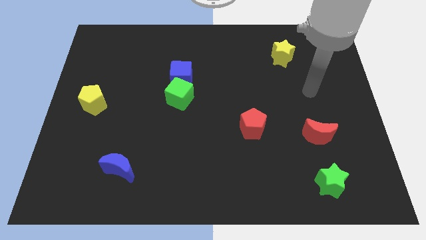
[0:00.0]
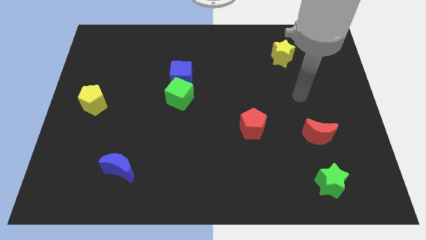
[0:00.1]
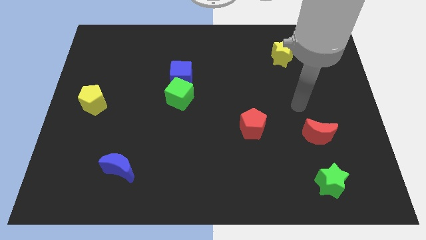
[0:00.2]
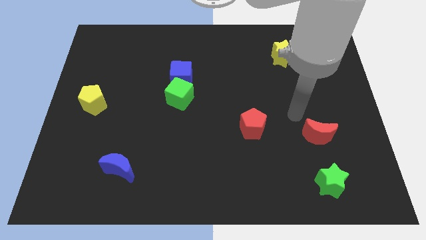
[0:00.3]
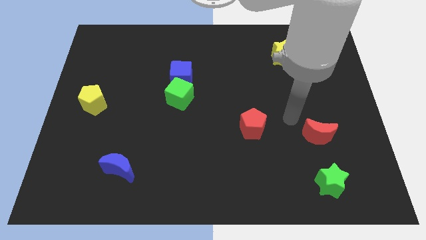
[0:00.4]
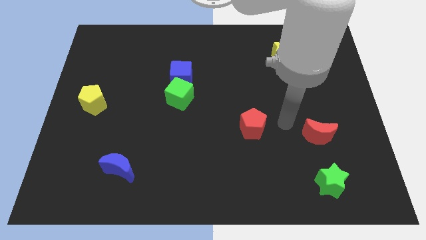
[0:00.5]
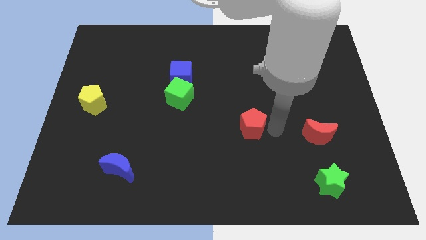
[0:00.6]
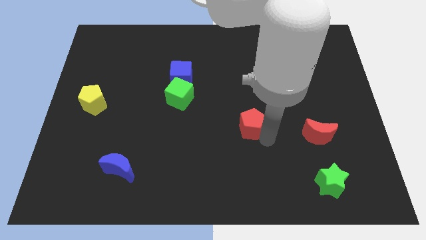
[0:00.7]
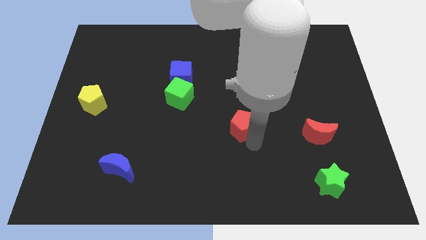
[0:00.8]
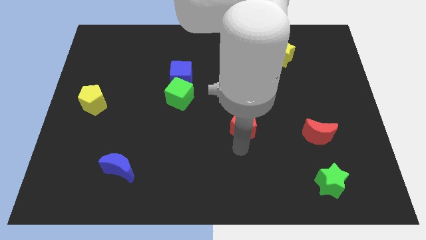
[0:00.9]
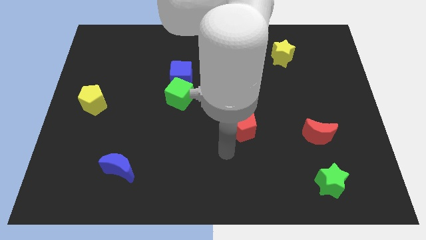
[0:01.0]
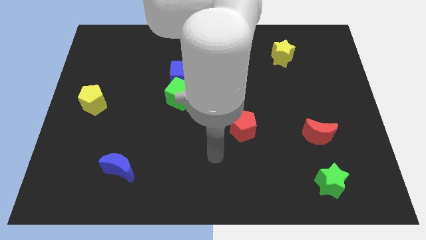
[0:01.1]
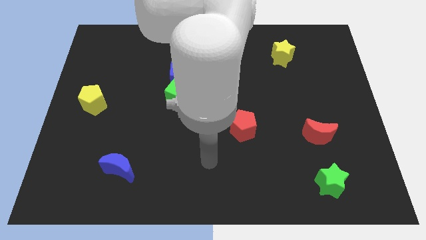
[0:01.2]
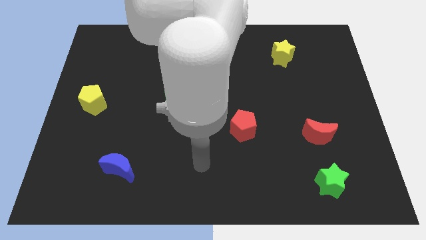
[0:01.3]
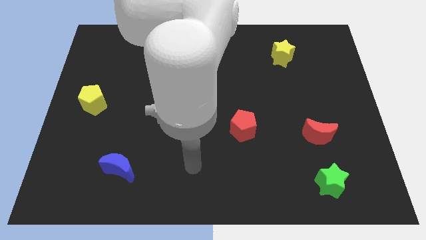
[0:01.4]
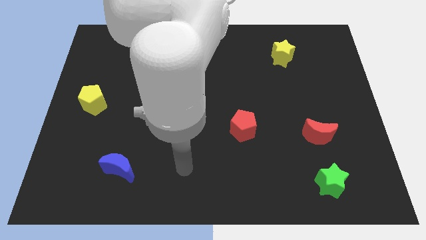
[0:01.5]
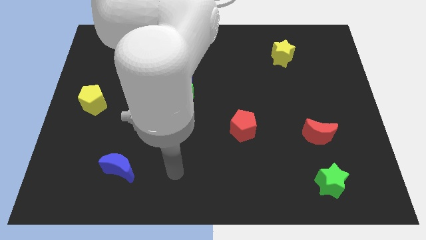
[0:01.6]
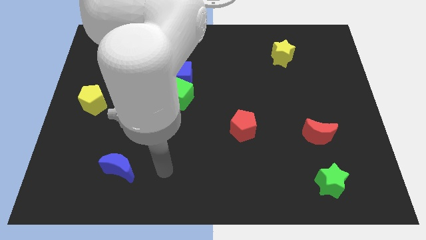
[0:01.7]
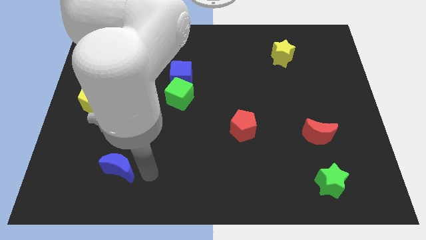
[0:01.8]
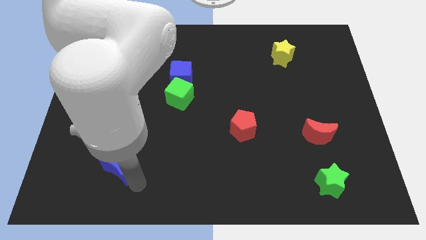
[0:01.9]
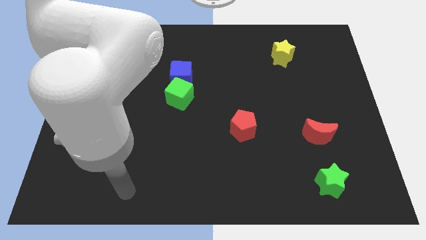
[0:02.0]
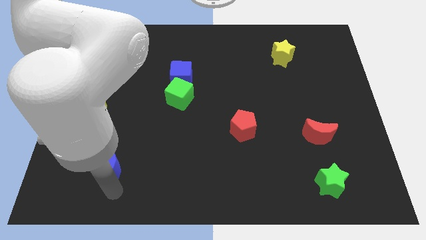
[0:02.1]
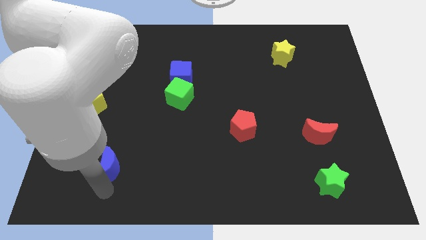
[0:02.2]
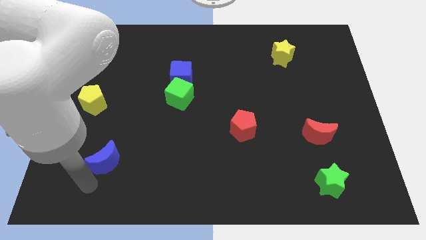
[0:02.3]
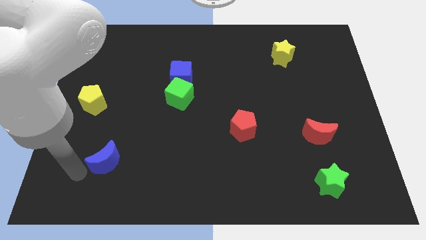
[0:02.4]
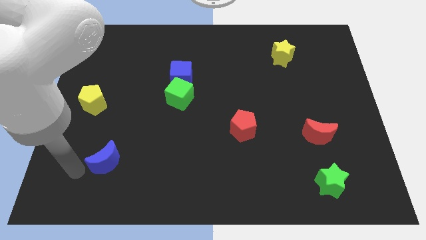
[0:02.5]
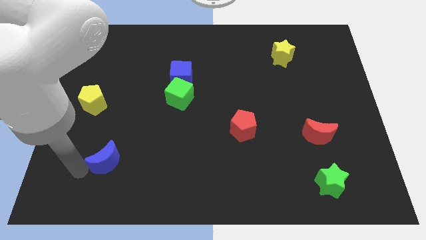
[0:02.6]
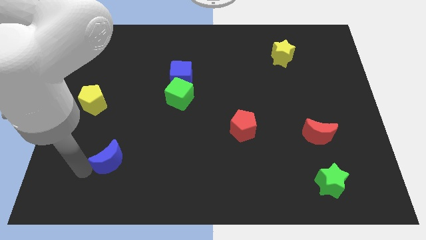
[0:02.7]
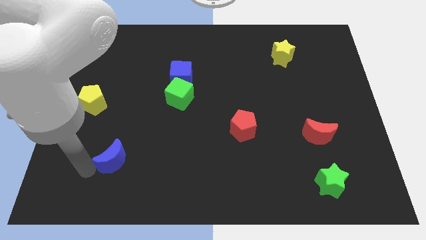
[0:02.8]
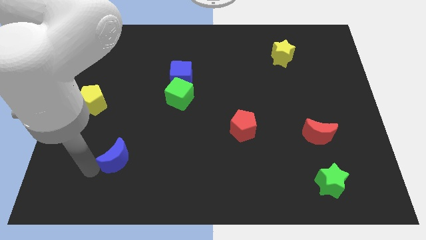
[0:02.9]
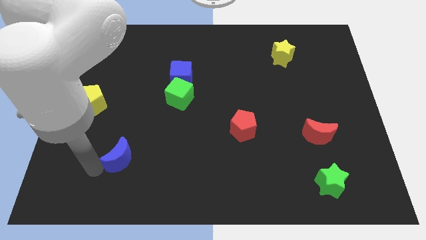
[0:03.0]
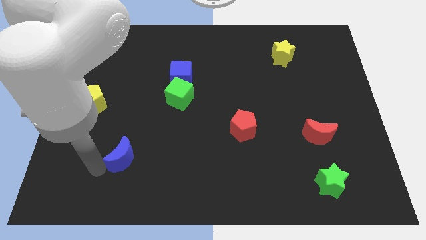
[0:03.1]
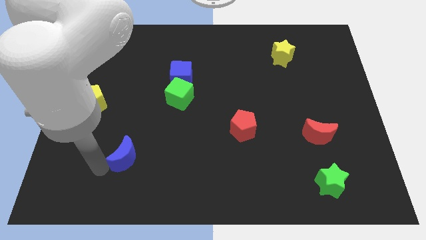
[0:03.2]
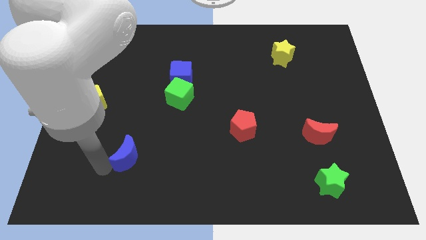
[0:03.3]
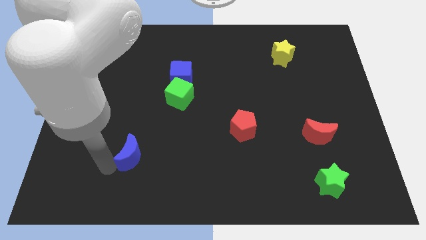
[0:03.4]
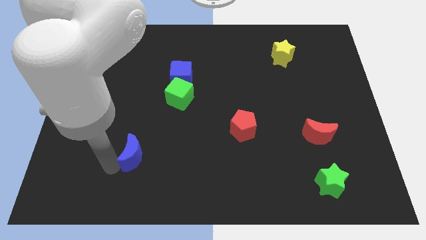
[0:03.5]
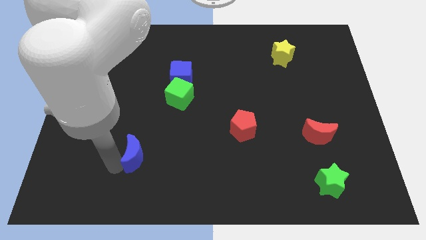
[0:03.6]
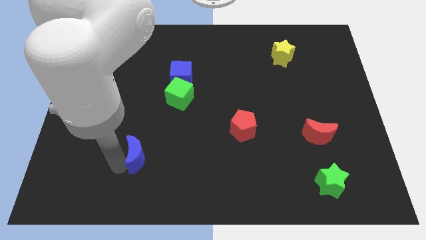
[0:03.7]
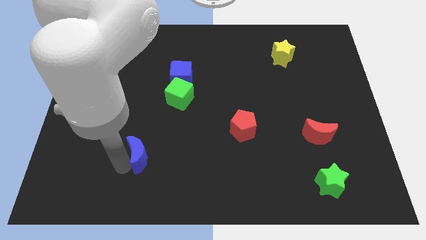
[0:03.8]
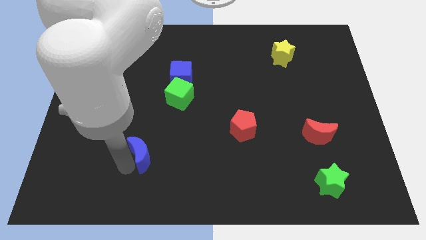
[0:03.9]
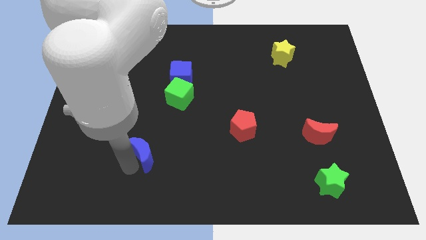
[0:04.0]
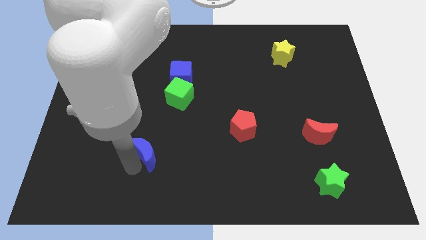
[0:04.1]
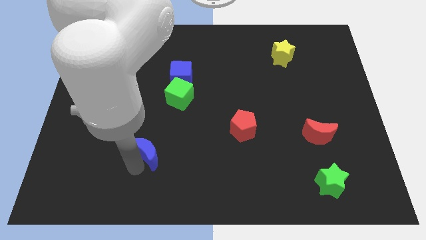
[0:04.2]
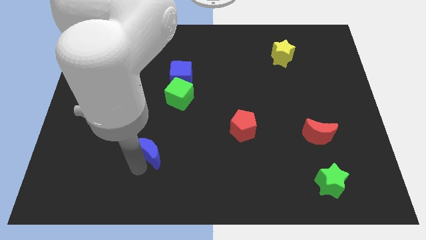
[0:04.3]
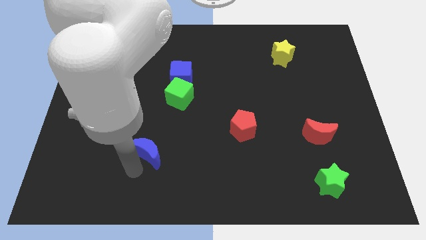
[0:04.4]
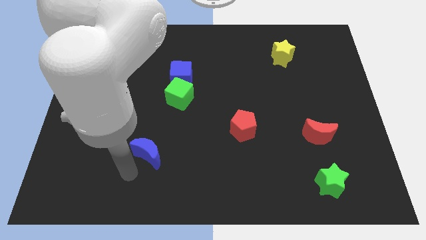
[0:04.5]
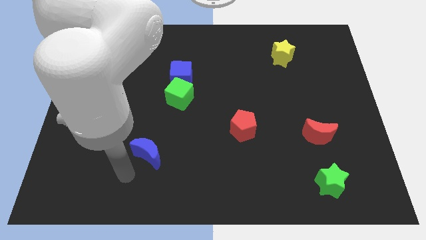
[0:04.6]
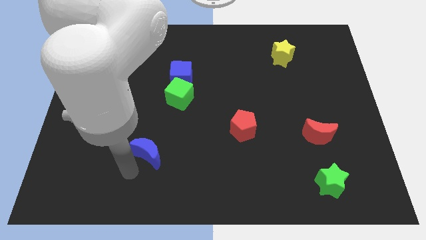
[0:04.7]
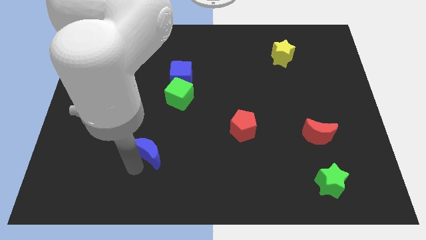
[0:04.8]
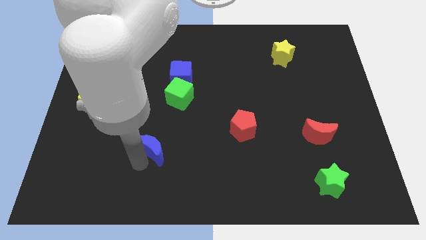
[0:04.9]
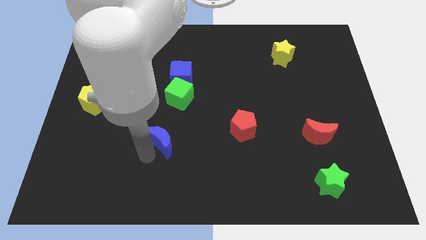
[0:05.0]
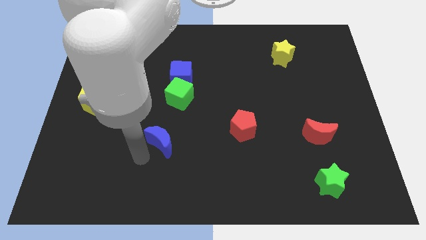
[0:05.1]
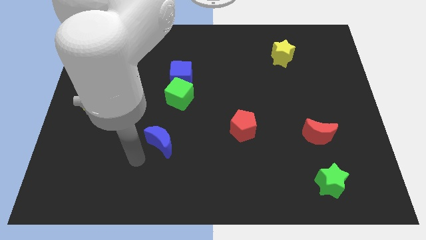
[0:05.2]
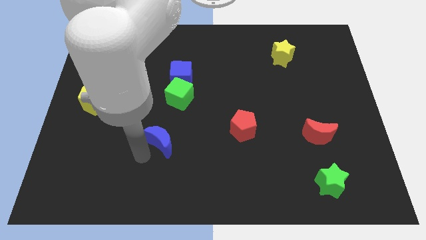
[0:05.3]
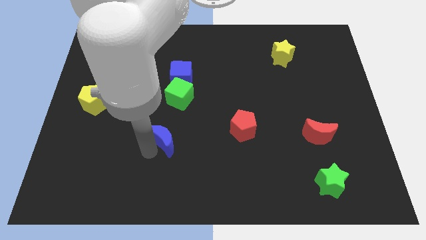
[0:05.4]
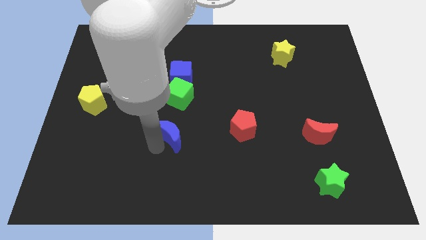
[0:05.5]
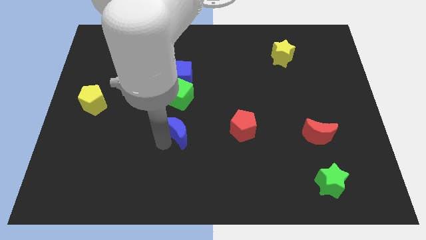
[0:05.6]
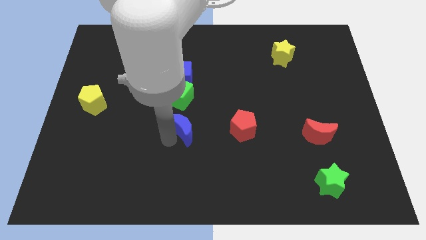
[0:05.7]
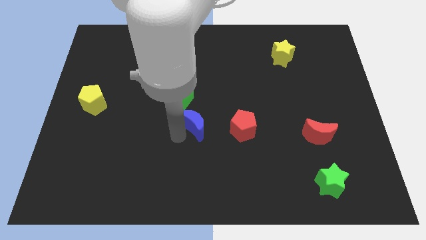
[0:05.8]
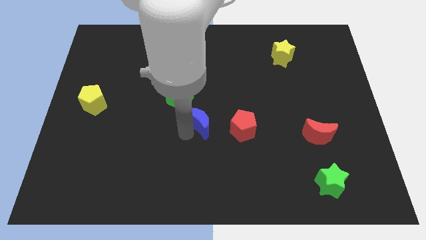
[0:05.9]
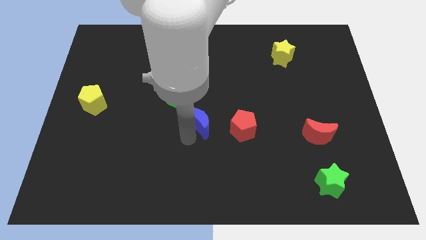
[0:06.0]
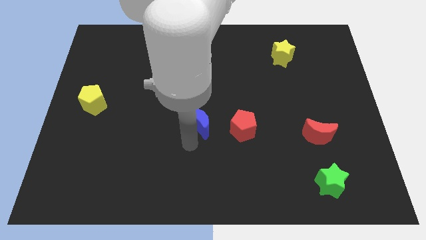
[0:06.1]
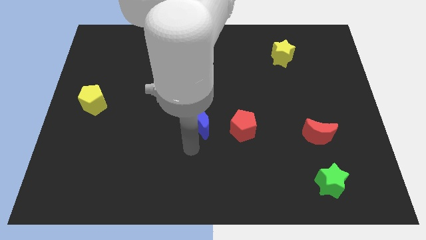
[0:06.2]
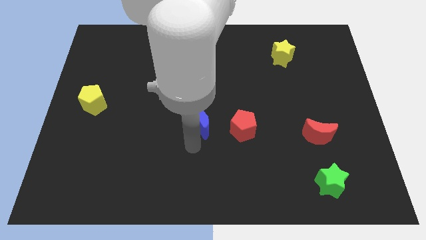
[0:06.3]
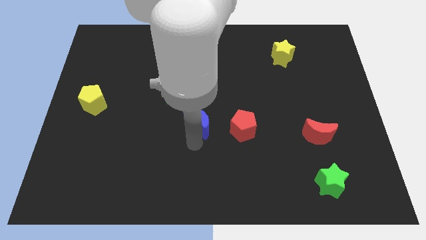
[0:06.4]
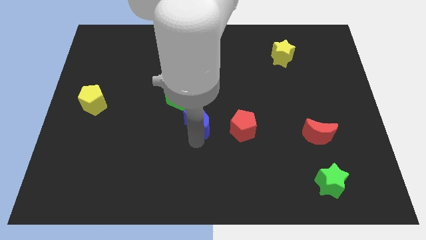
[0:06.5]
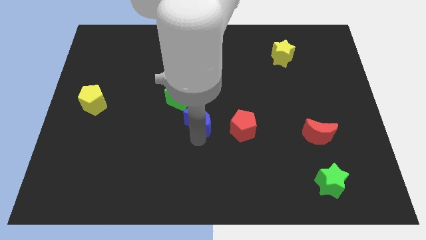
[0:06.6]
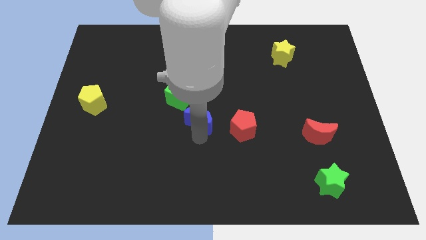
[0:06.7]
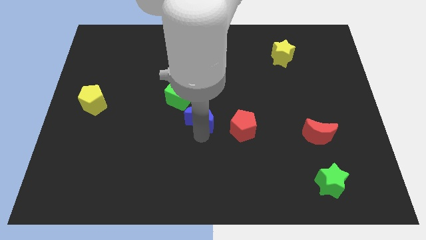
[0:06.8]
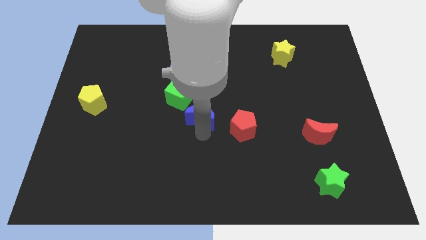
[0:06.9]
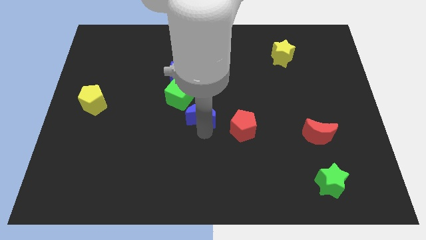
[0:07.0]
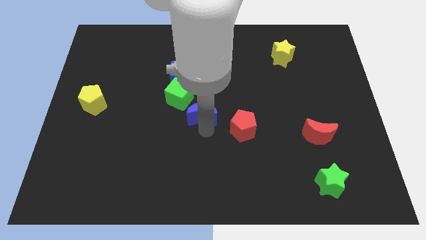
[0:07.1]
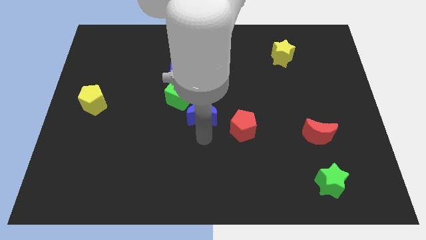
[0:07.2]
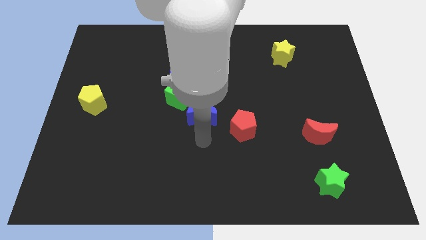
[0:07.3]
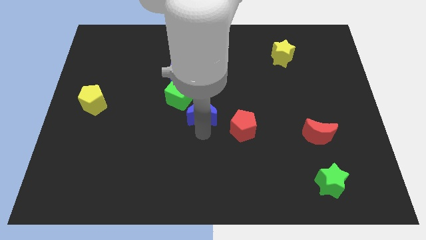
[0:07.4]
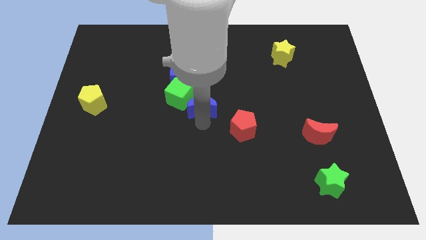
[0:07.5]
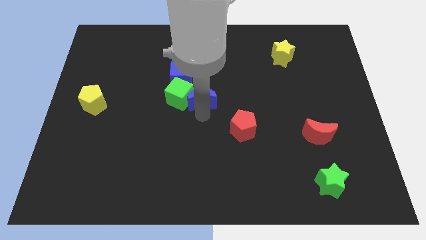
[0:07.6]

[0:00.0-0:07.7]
move the blue moon to the top right of the green cube
